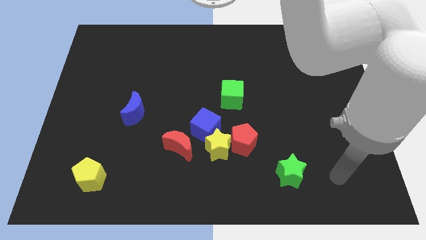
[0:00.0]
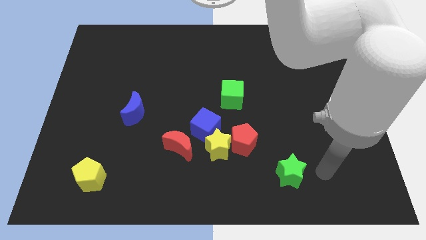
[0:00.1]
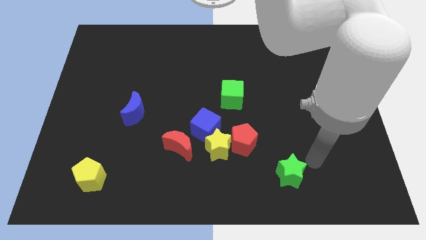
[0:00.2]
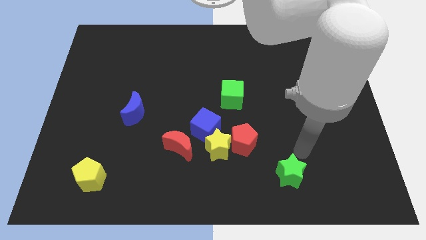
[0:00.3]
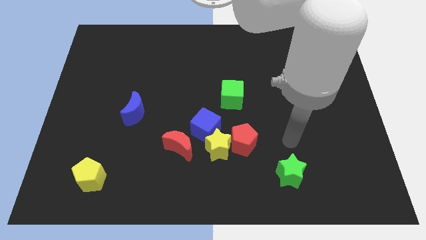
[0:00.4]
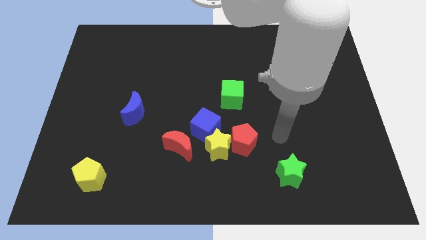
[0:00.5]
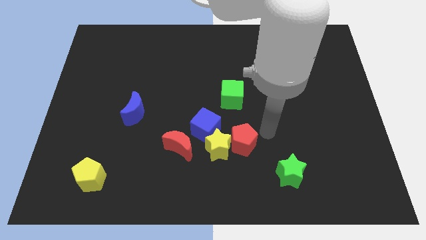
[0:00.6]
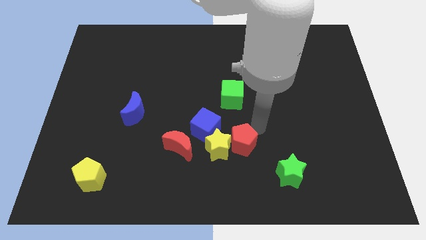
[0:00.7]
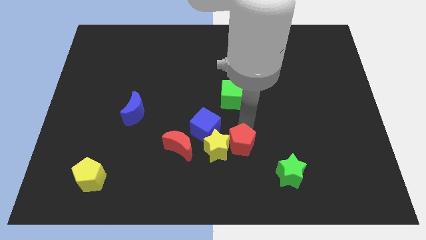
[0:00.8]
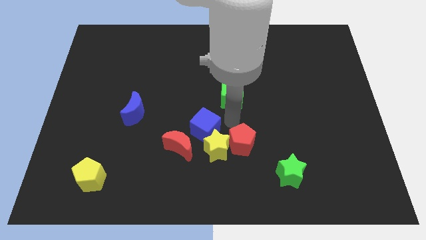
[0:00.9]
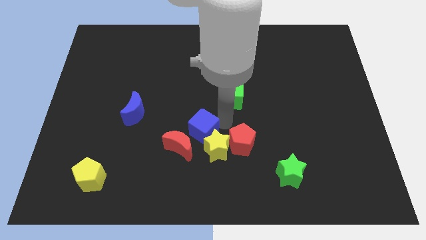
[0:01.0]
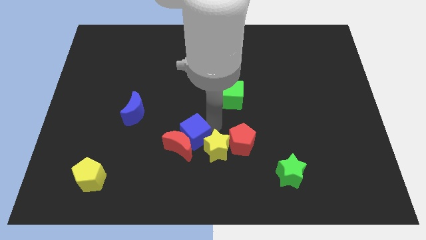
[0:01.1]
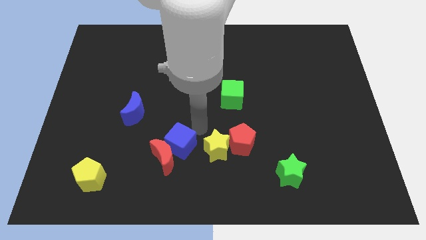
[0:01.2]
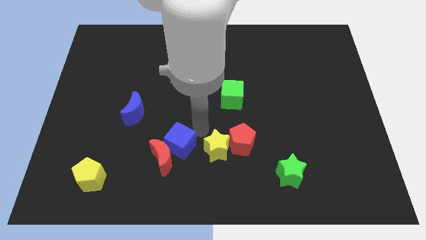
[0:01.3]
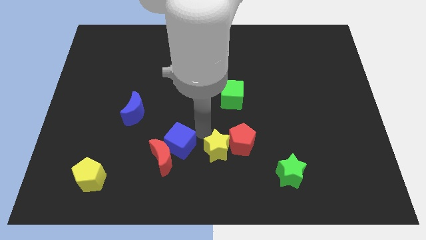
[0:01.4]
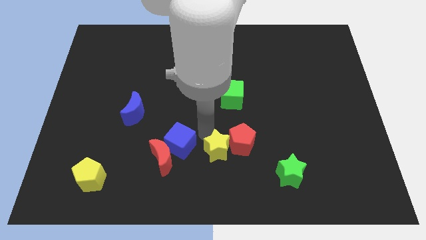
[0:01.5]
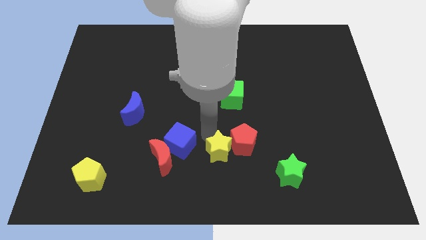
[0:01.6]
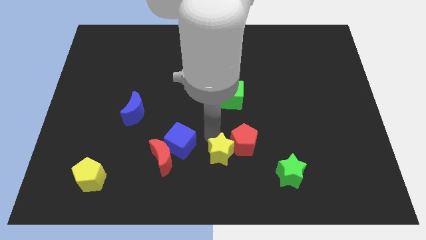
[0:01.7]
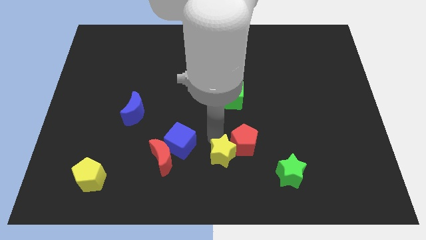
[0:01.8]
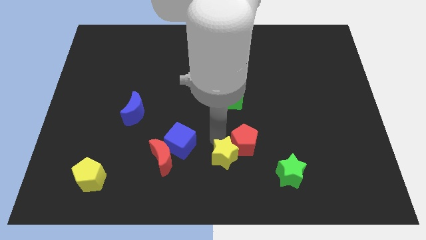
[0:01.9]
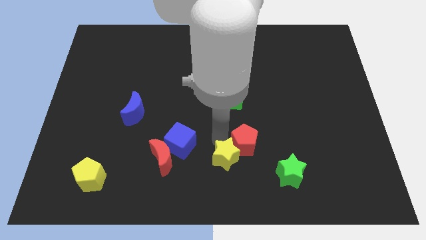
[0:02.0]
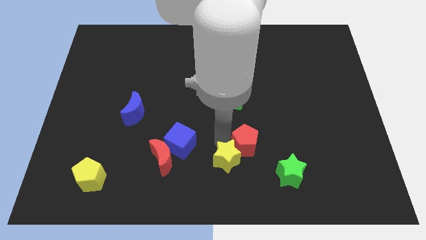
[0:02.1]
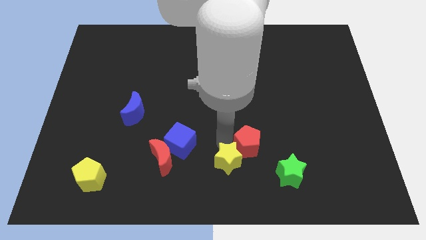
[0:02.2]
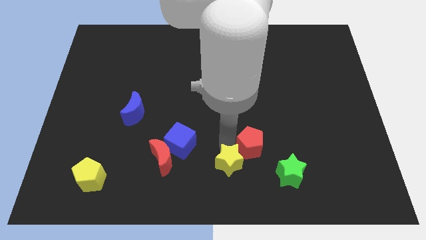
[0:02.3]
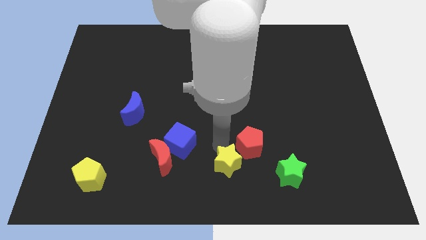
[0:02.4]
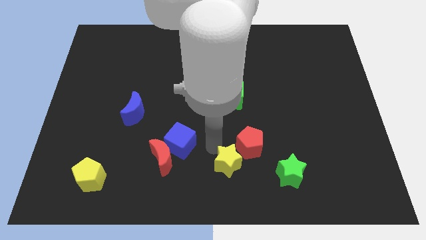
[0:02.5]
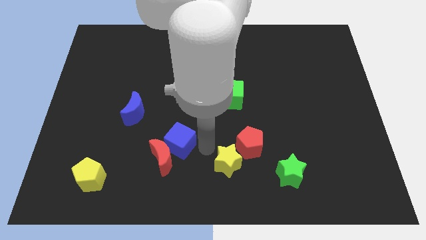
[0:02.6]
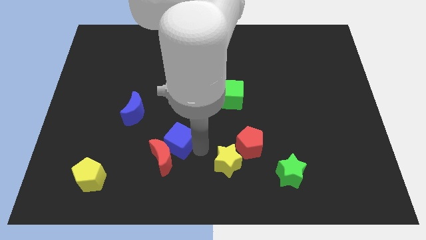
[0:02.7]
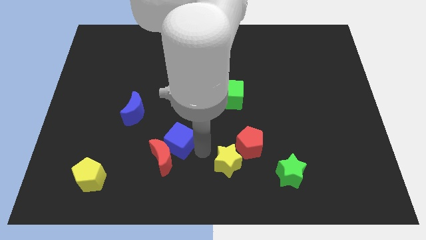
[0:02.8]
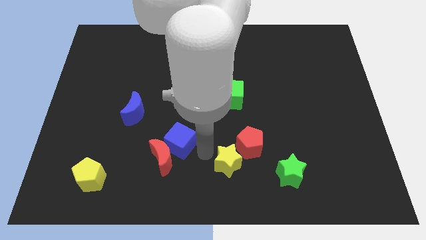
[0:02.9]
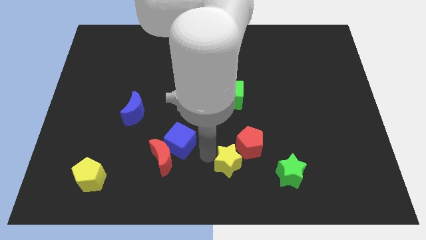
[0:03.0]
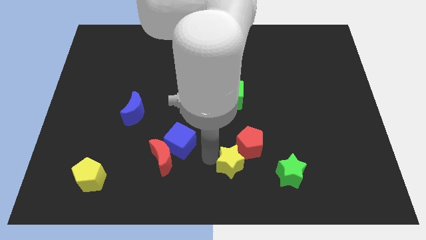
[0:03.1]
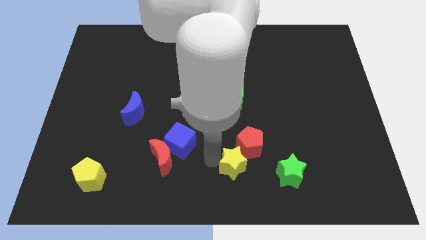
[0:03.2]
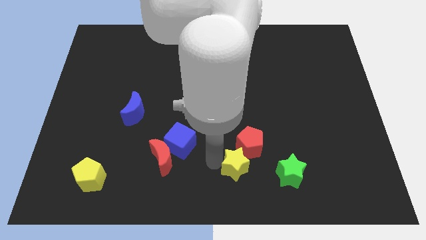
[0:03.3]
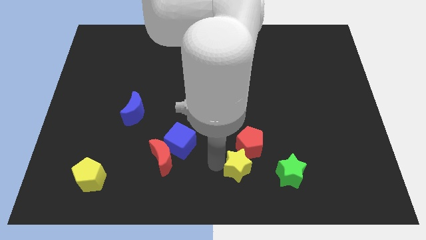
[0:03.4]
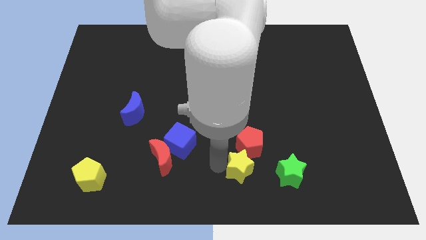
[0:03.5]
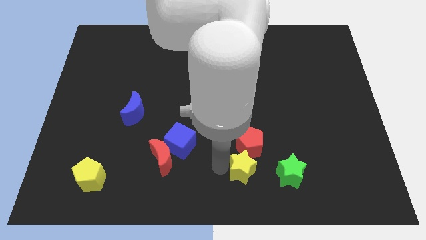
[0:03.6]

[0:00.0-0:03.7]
pull the yellow star apart from the blue cube, red pentagon, and red moon

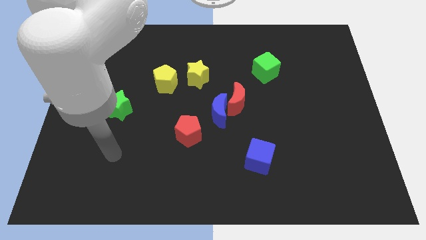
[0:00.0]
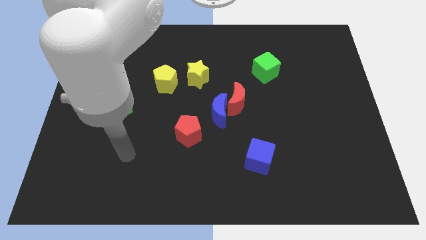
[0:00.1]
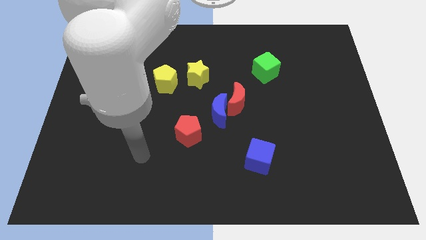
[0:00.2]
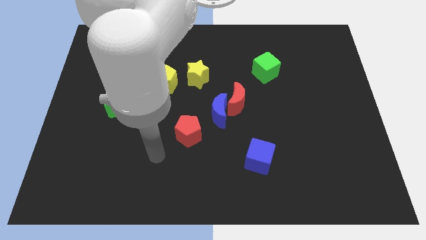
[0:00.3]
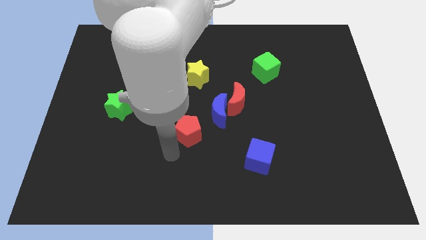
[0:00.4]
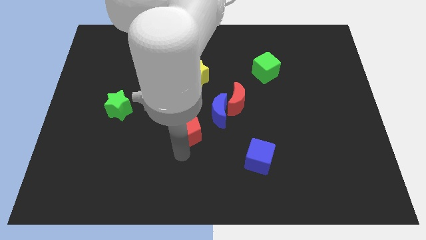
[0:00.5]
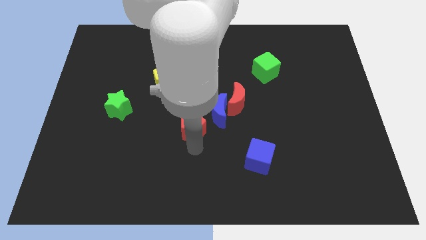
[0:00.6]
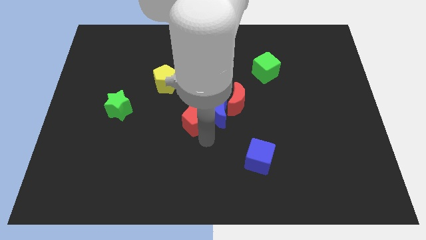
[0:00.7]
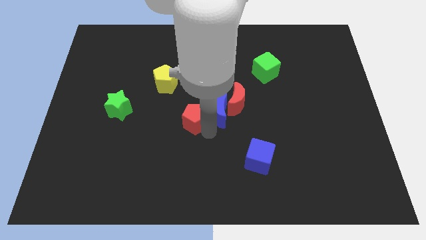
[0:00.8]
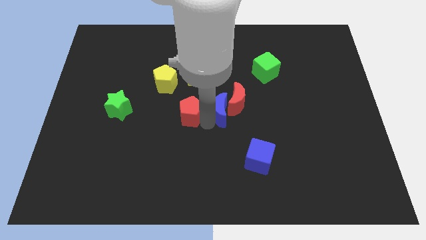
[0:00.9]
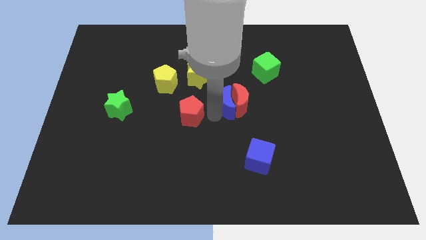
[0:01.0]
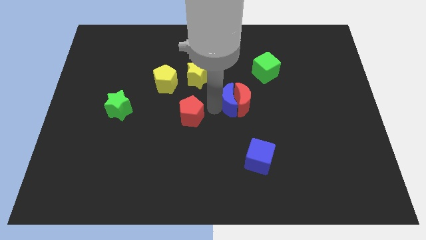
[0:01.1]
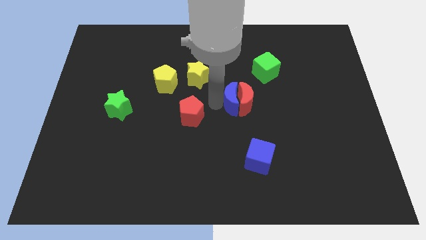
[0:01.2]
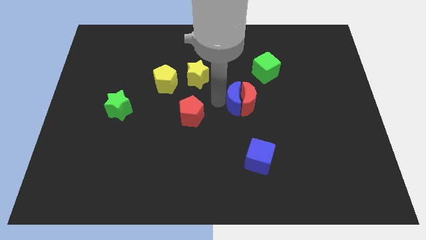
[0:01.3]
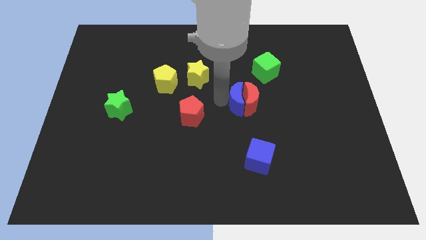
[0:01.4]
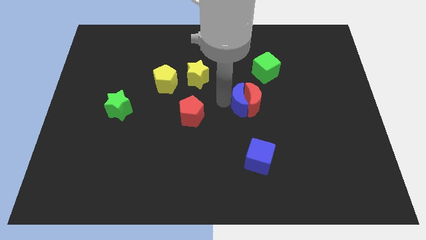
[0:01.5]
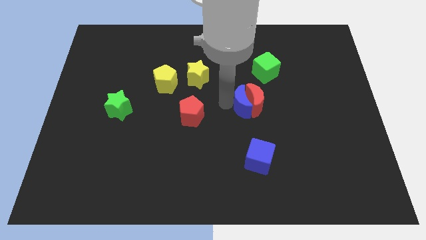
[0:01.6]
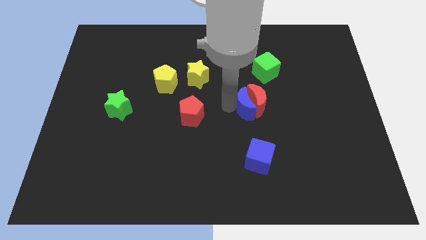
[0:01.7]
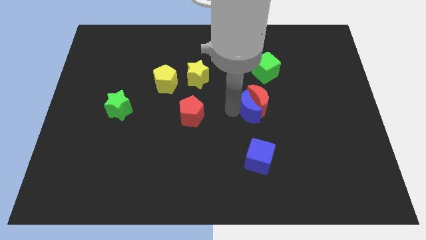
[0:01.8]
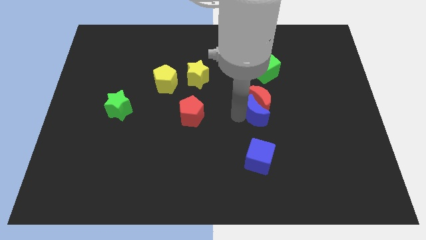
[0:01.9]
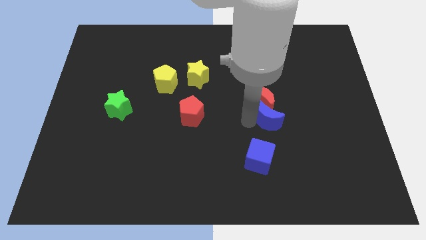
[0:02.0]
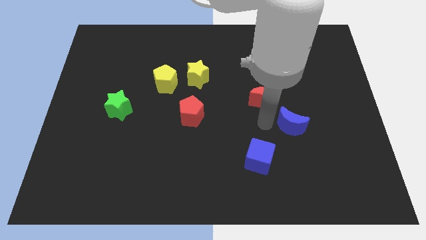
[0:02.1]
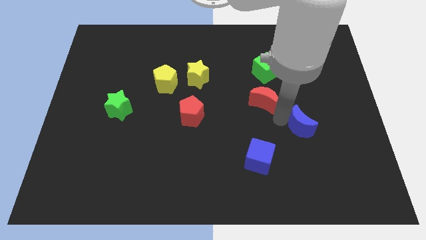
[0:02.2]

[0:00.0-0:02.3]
move the red moon away from the blue moon

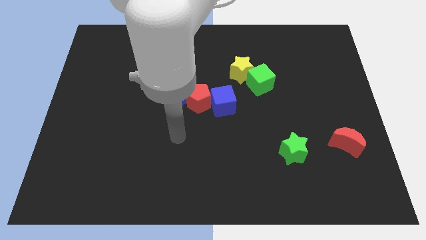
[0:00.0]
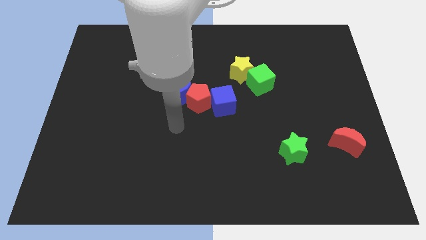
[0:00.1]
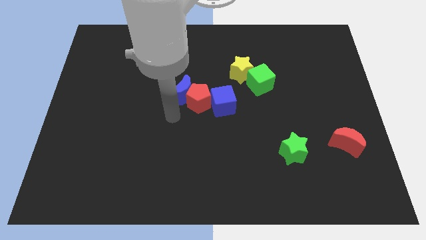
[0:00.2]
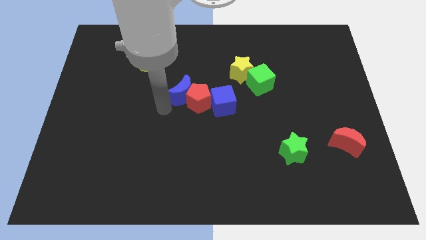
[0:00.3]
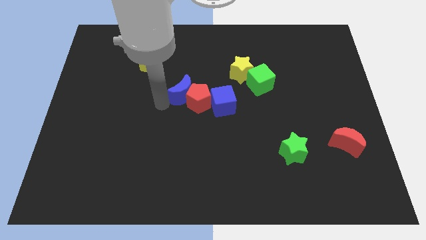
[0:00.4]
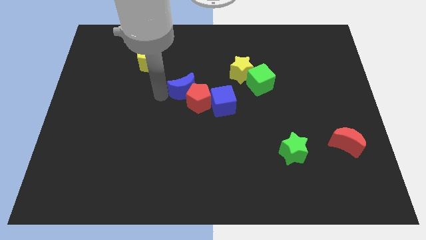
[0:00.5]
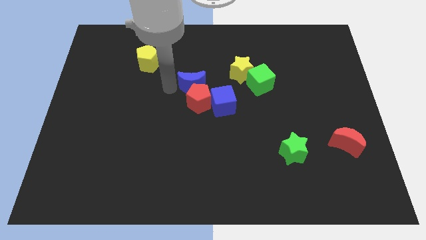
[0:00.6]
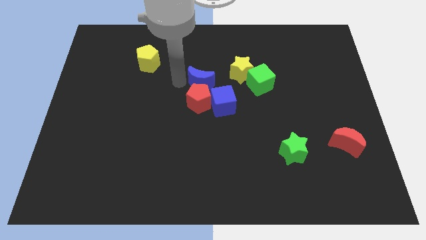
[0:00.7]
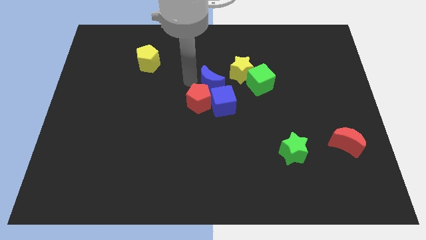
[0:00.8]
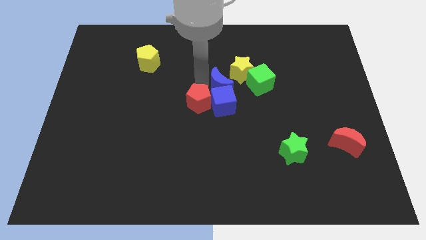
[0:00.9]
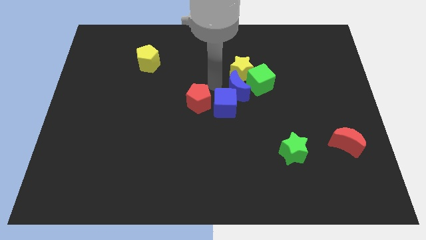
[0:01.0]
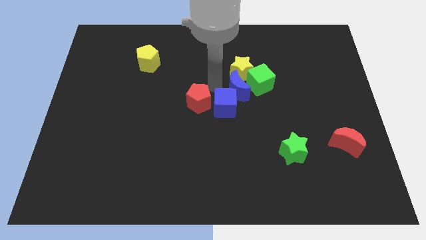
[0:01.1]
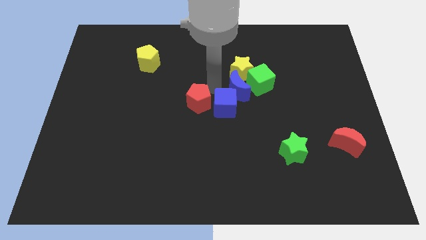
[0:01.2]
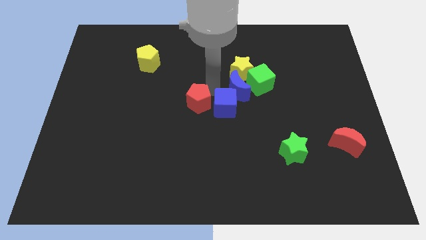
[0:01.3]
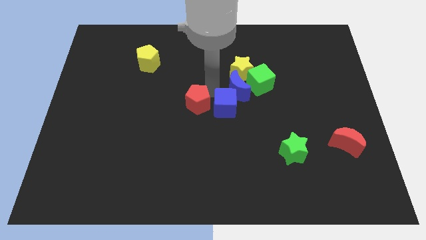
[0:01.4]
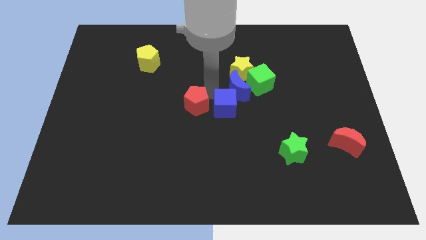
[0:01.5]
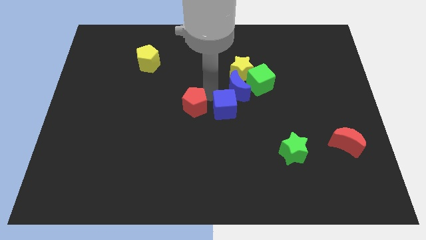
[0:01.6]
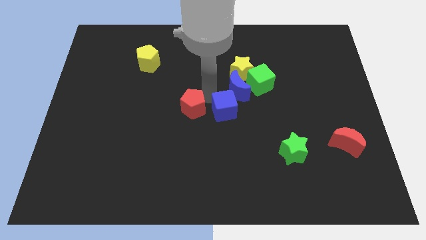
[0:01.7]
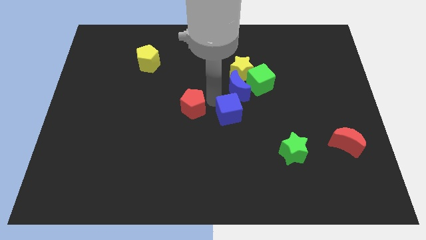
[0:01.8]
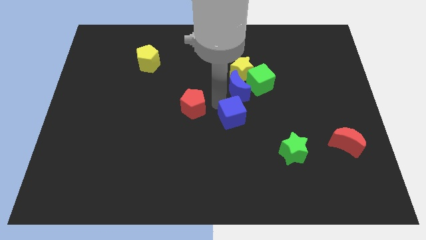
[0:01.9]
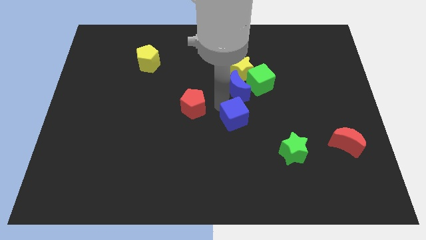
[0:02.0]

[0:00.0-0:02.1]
separate the red pentagon from the blue moon and blue cube

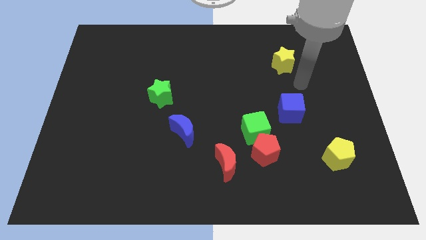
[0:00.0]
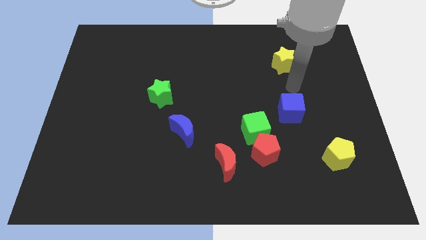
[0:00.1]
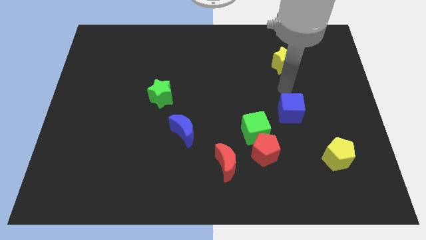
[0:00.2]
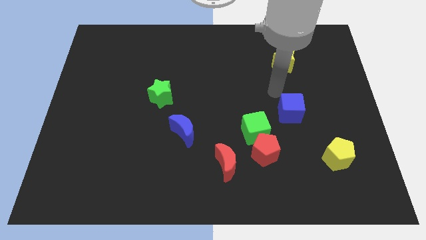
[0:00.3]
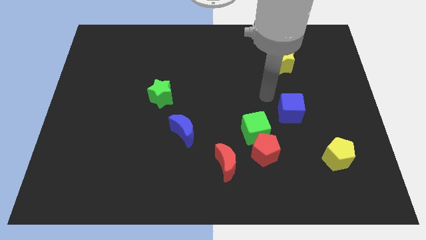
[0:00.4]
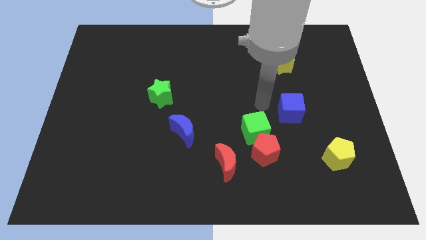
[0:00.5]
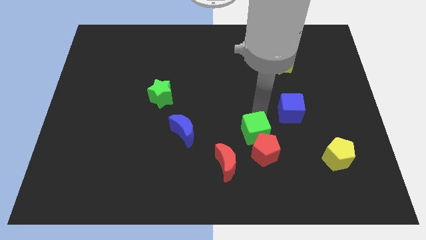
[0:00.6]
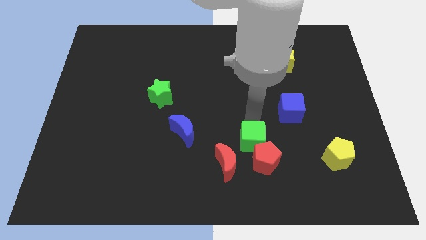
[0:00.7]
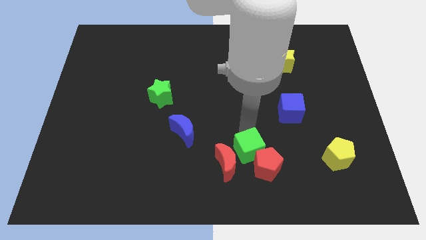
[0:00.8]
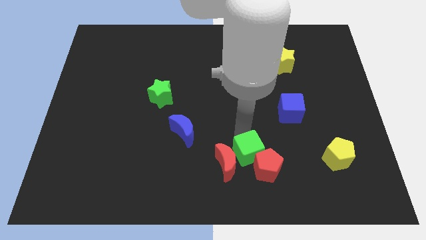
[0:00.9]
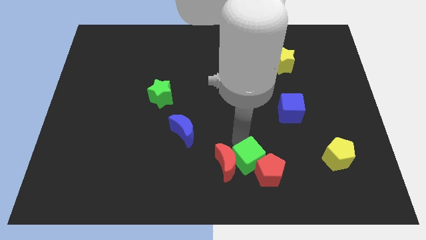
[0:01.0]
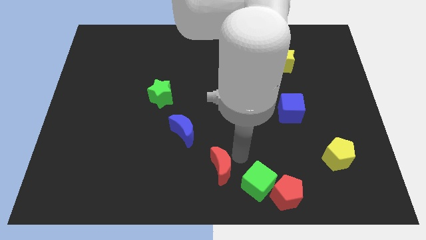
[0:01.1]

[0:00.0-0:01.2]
move the red pentagon away from the green cube and red moon

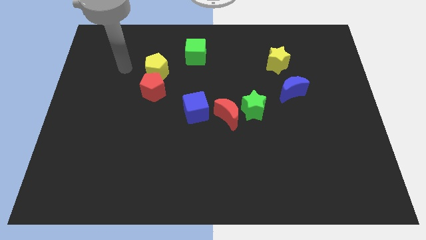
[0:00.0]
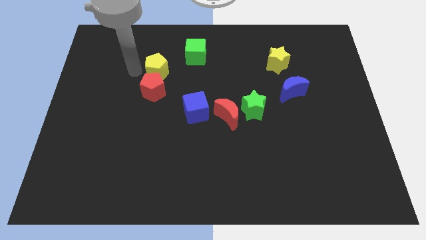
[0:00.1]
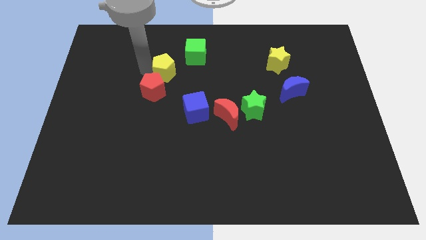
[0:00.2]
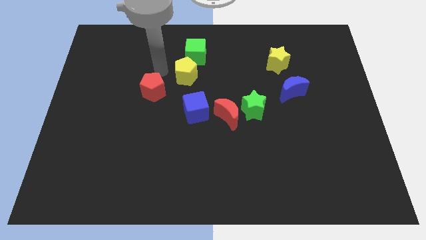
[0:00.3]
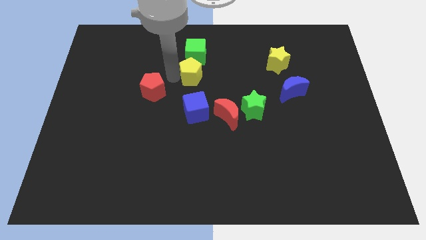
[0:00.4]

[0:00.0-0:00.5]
separate the red pentagon from the yellow pentagon
